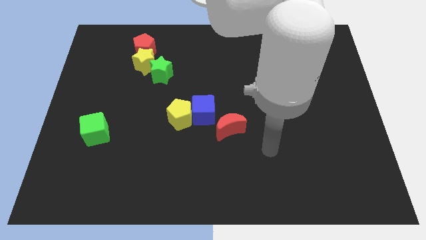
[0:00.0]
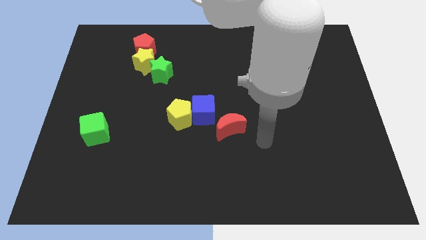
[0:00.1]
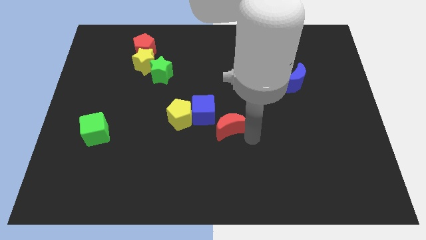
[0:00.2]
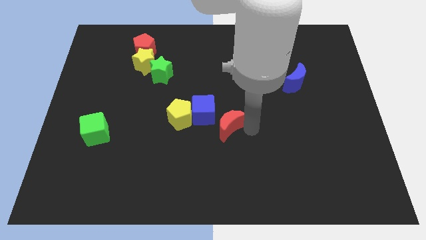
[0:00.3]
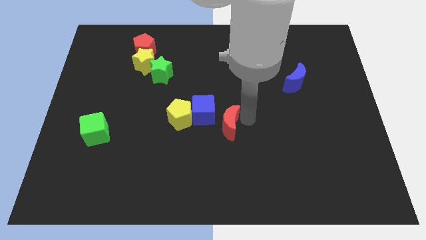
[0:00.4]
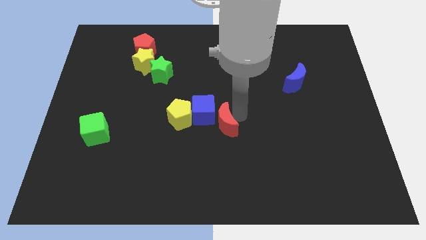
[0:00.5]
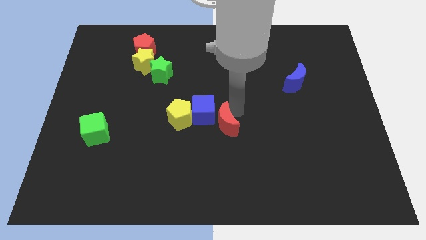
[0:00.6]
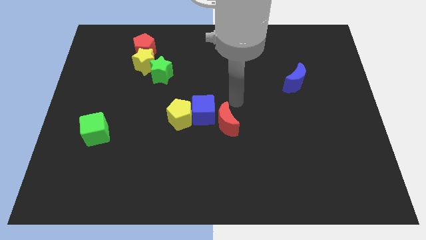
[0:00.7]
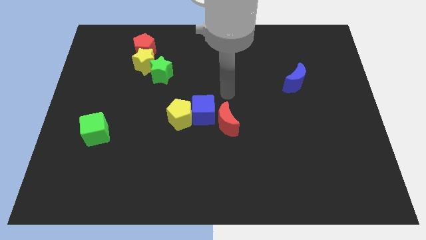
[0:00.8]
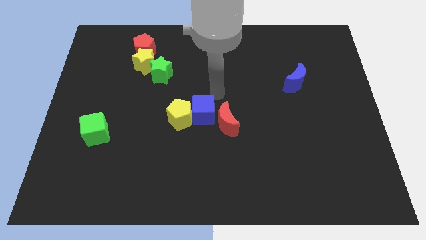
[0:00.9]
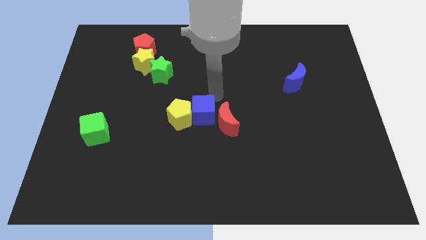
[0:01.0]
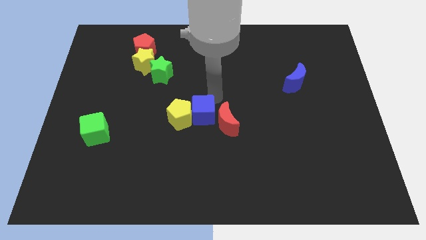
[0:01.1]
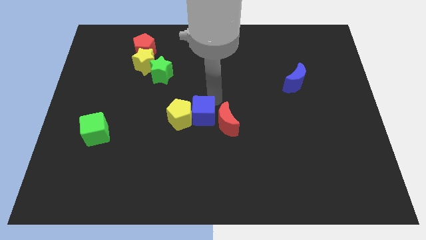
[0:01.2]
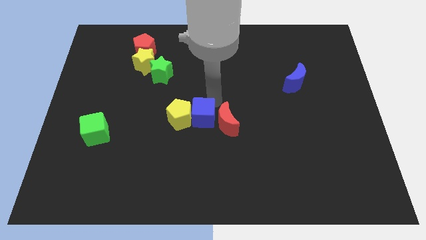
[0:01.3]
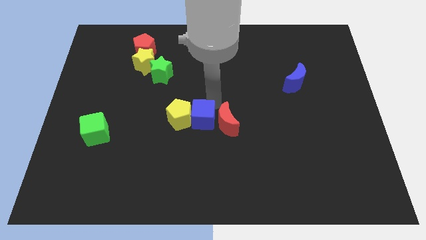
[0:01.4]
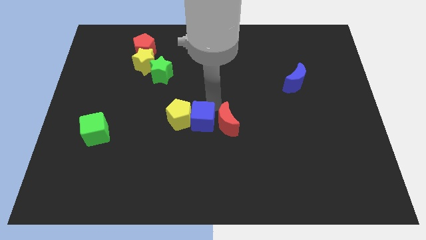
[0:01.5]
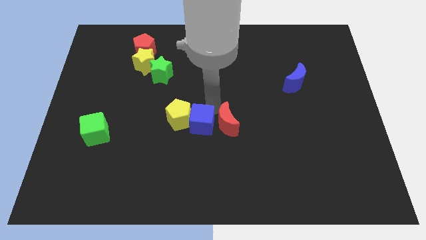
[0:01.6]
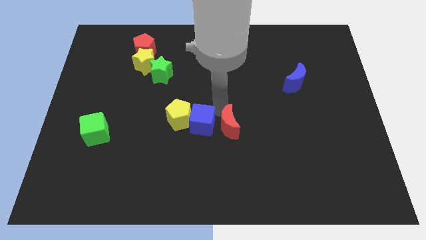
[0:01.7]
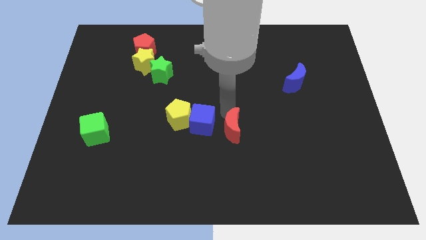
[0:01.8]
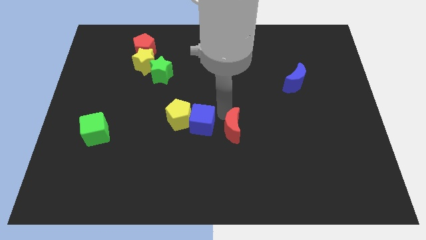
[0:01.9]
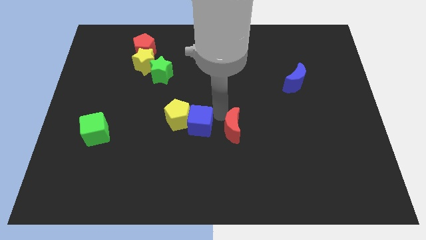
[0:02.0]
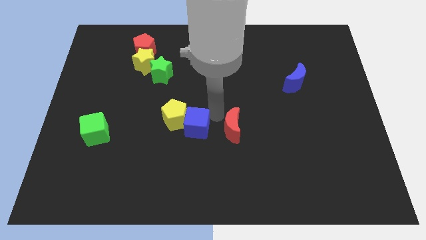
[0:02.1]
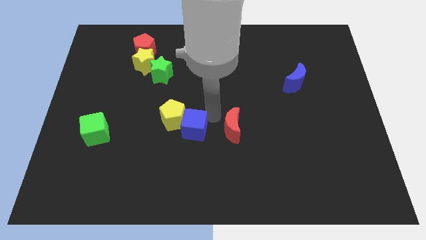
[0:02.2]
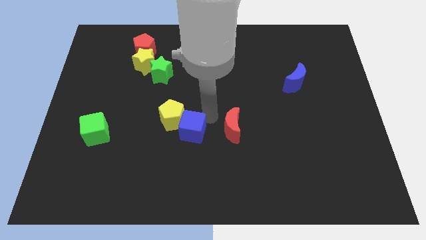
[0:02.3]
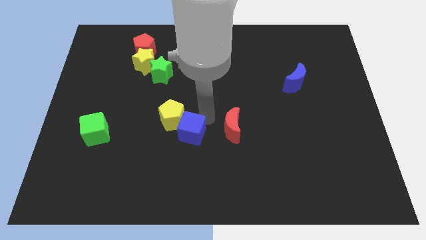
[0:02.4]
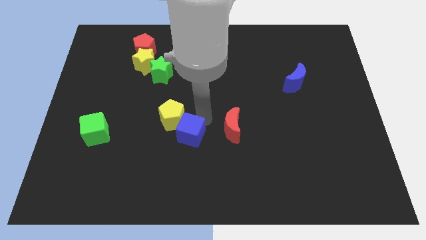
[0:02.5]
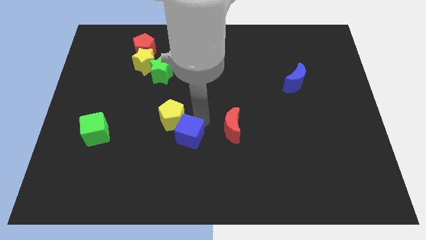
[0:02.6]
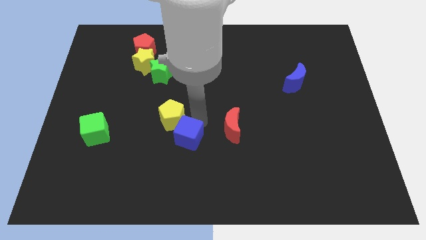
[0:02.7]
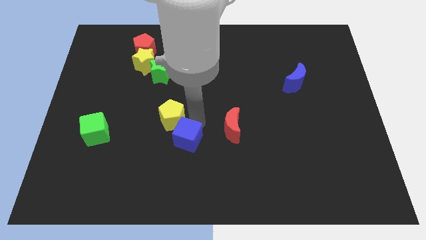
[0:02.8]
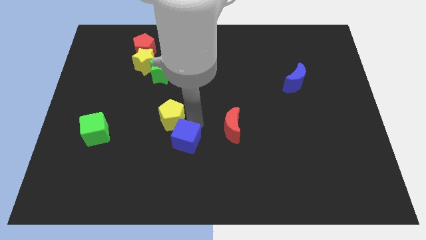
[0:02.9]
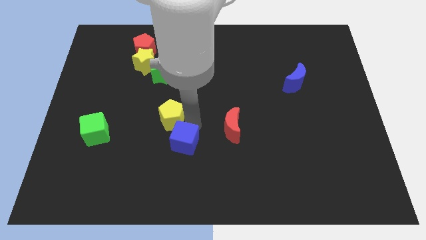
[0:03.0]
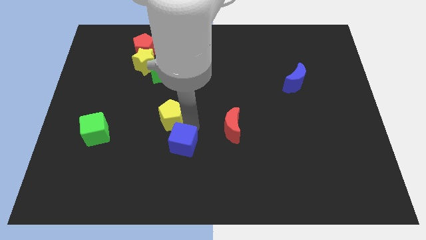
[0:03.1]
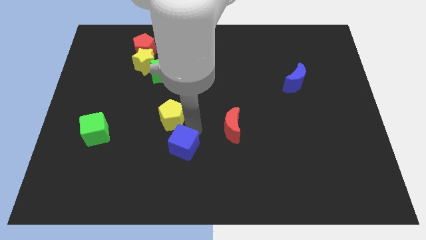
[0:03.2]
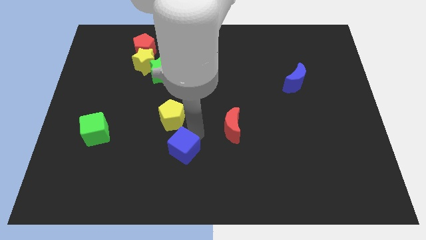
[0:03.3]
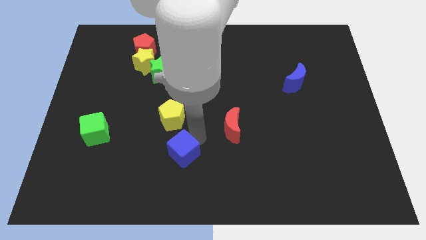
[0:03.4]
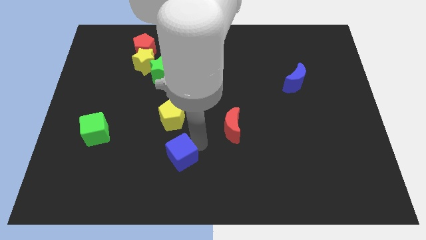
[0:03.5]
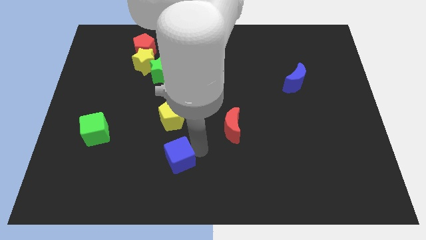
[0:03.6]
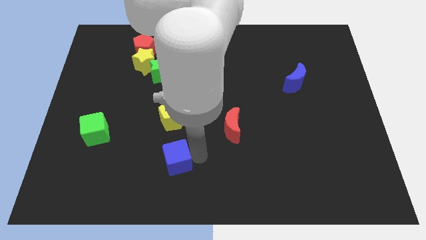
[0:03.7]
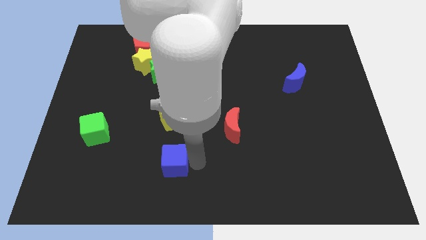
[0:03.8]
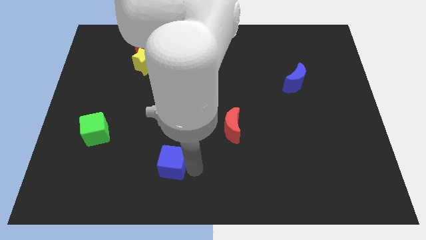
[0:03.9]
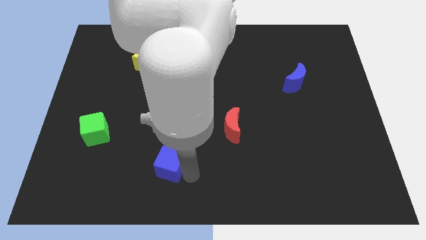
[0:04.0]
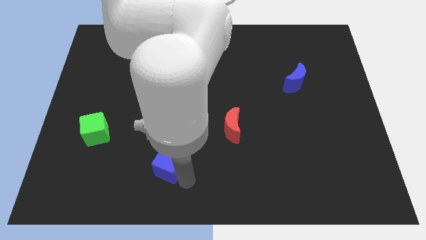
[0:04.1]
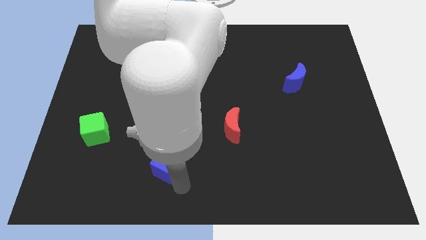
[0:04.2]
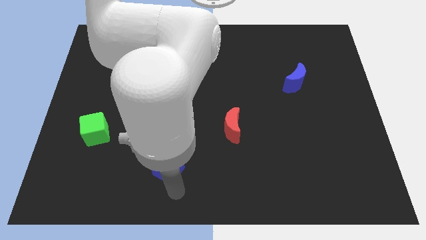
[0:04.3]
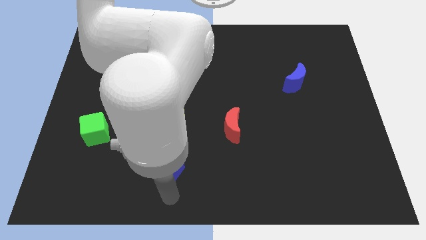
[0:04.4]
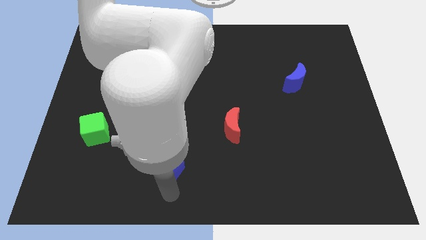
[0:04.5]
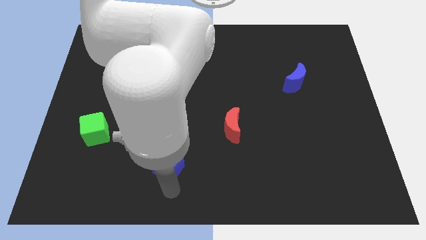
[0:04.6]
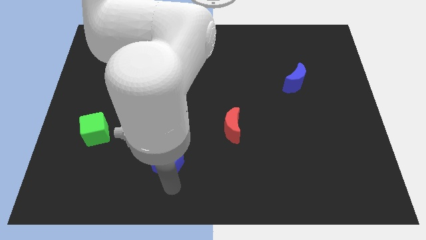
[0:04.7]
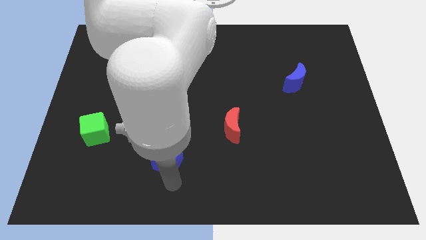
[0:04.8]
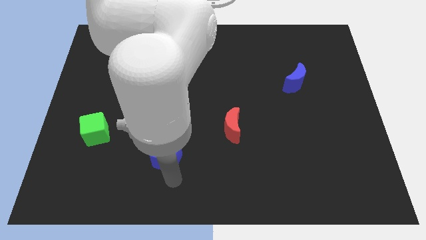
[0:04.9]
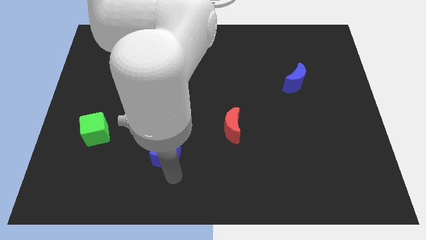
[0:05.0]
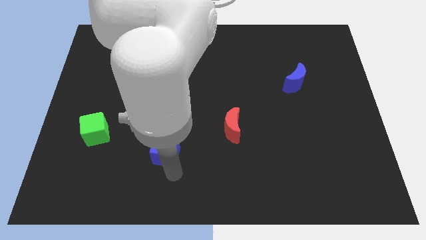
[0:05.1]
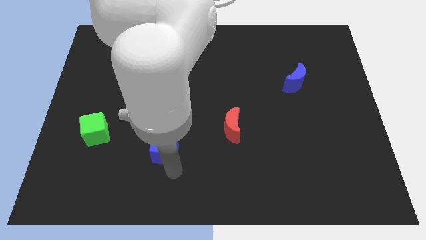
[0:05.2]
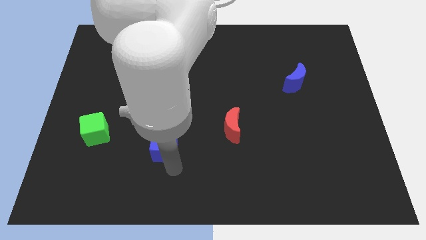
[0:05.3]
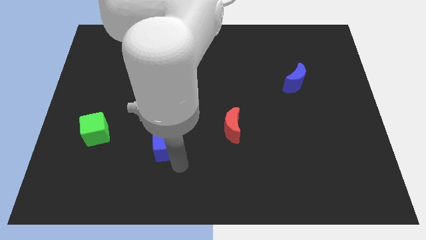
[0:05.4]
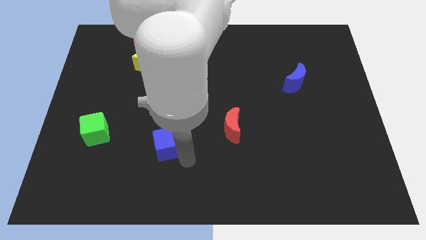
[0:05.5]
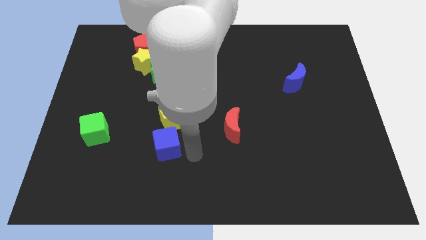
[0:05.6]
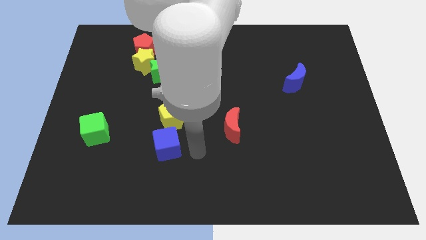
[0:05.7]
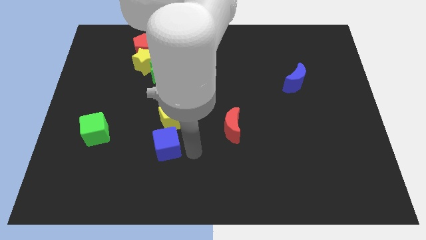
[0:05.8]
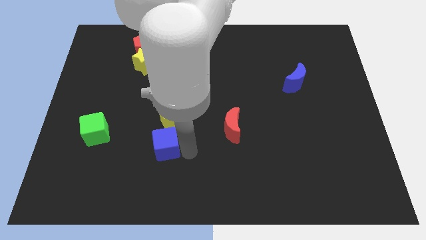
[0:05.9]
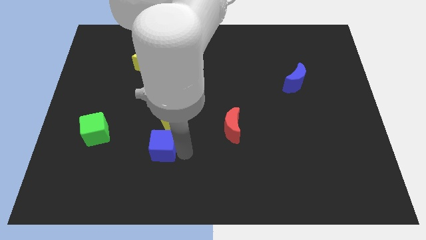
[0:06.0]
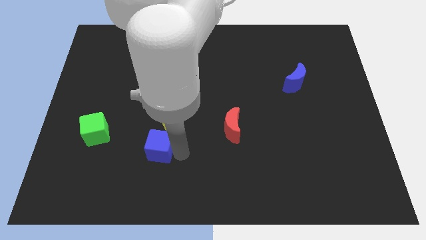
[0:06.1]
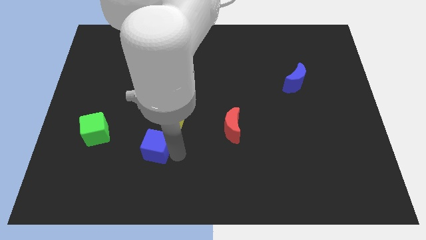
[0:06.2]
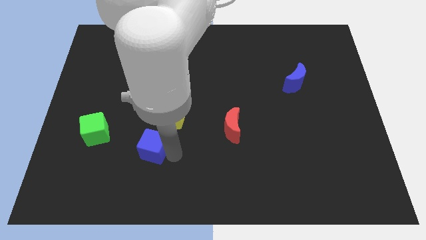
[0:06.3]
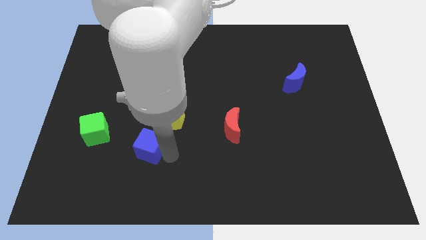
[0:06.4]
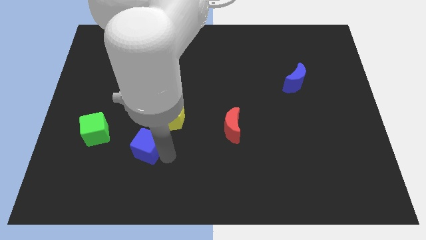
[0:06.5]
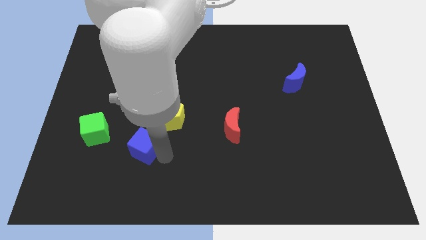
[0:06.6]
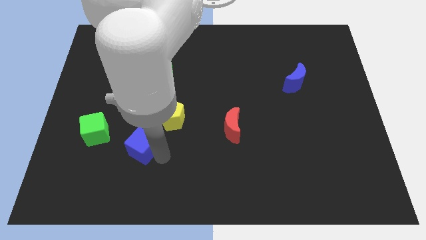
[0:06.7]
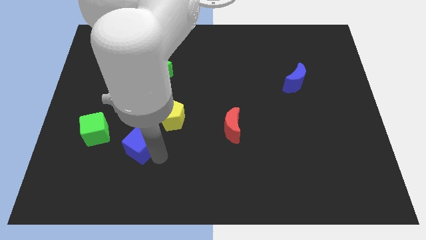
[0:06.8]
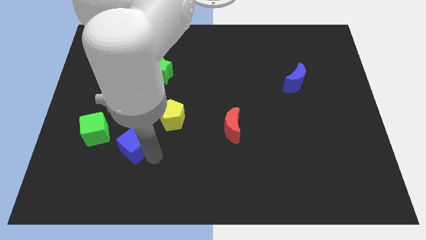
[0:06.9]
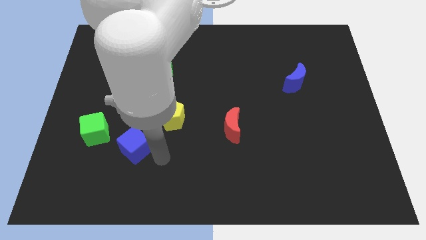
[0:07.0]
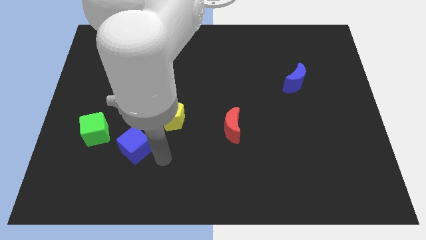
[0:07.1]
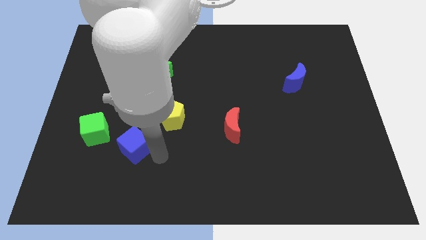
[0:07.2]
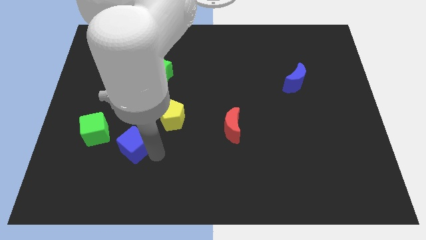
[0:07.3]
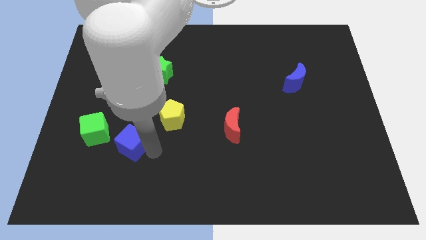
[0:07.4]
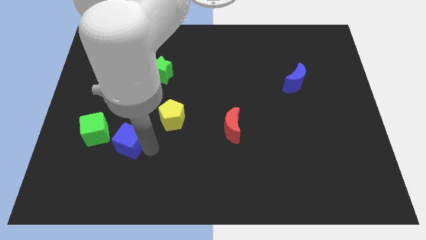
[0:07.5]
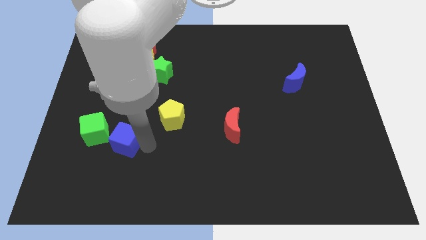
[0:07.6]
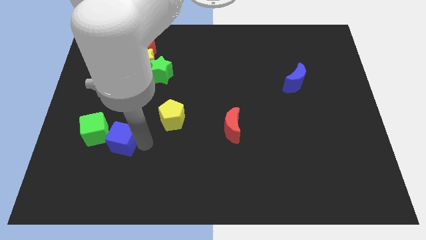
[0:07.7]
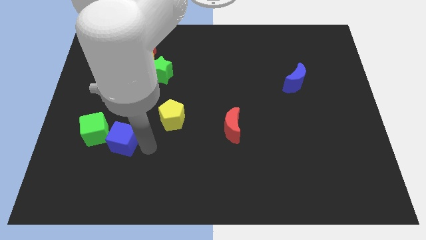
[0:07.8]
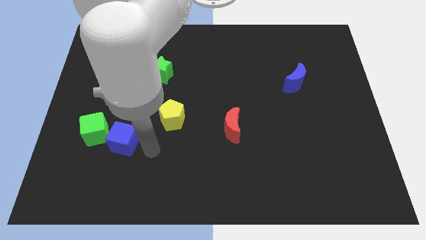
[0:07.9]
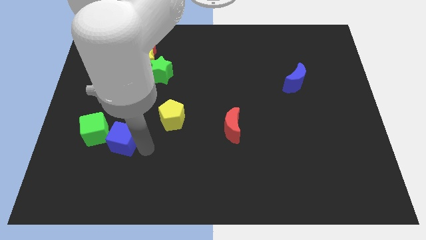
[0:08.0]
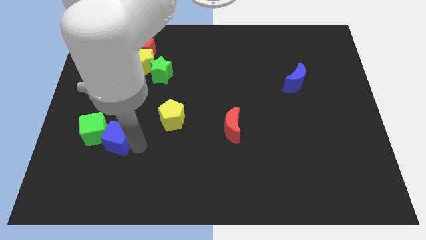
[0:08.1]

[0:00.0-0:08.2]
move the blue cube to the green cube
